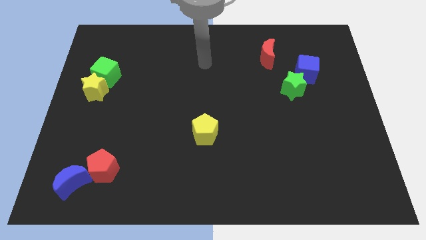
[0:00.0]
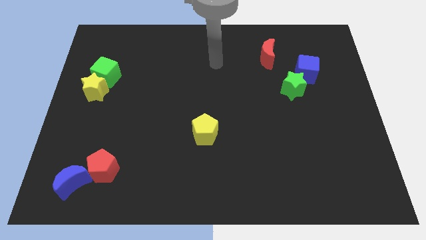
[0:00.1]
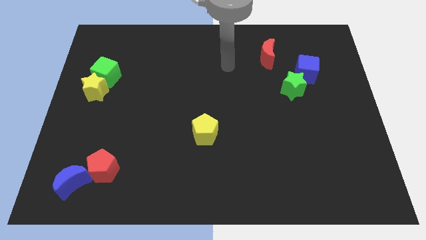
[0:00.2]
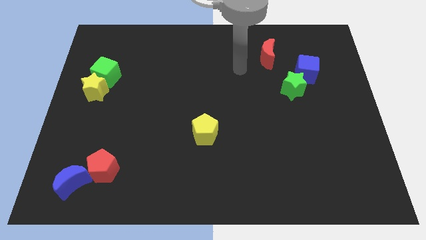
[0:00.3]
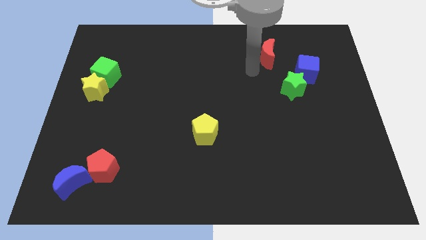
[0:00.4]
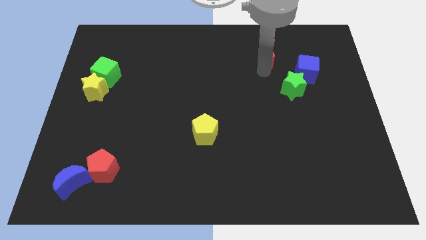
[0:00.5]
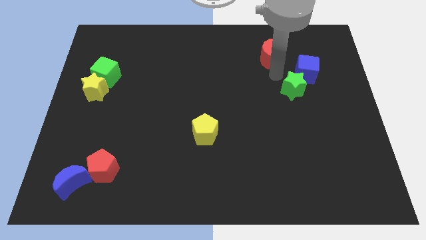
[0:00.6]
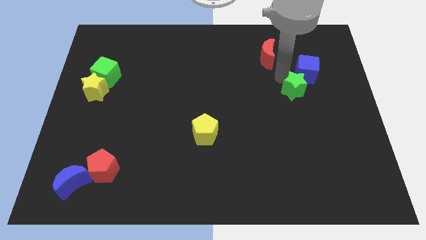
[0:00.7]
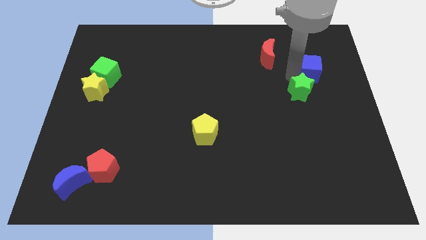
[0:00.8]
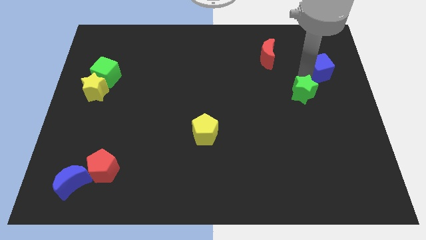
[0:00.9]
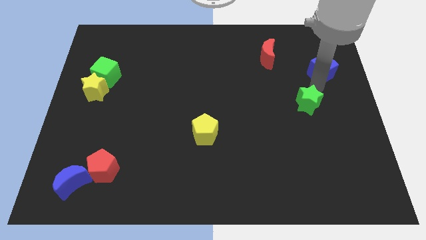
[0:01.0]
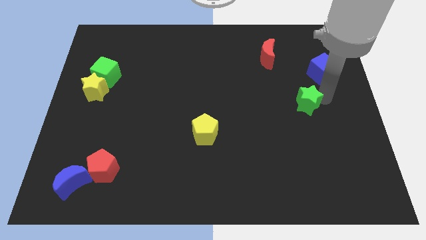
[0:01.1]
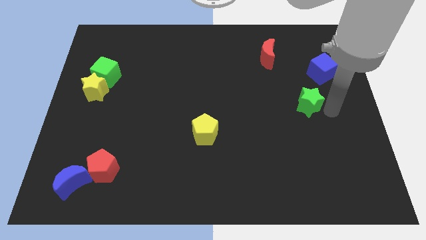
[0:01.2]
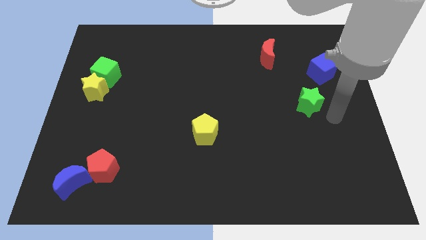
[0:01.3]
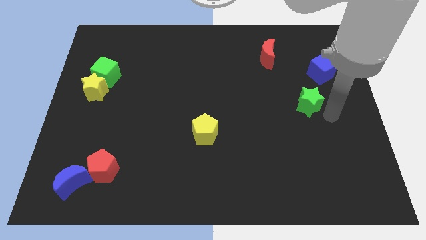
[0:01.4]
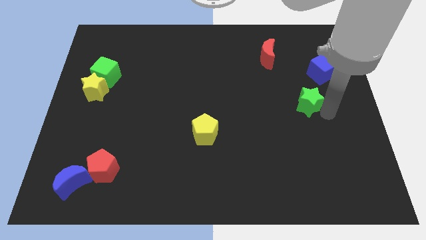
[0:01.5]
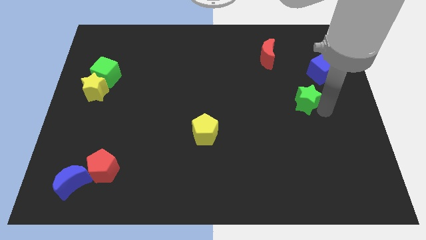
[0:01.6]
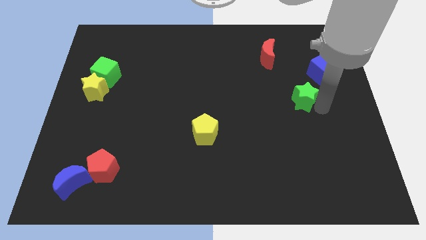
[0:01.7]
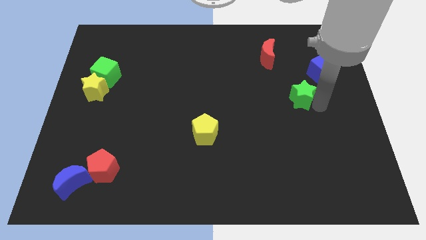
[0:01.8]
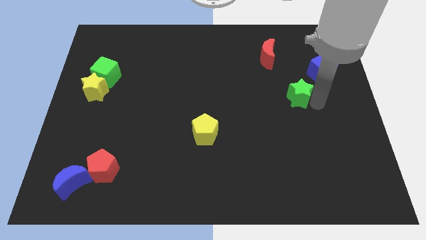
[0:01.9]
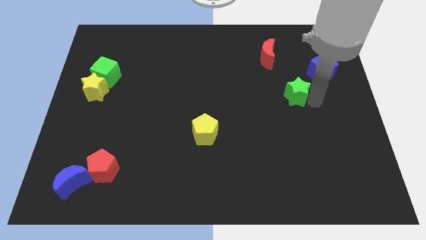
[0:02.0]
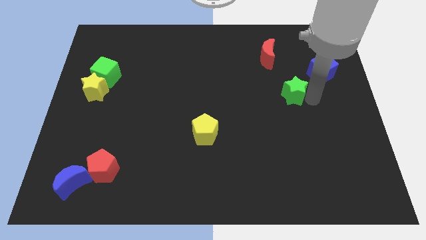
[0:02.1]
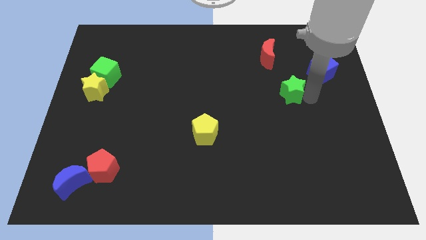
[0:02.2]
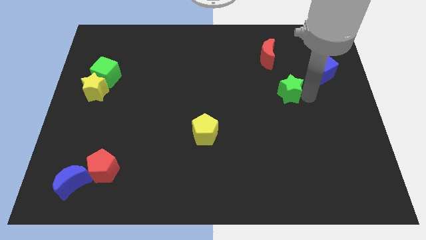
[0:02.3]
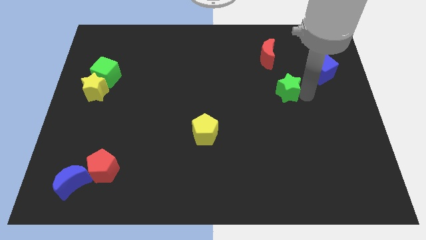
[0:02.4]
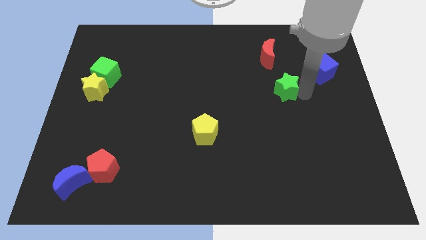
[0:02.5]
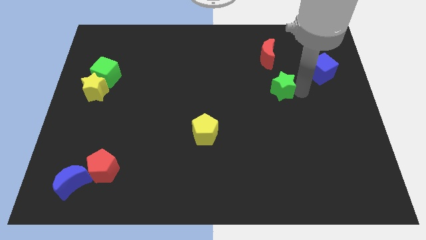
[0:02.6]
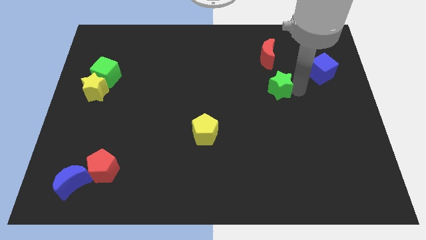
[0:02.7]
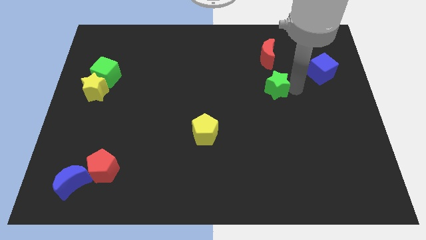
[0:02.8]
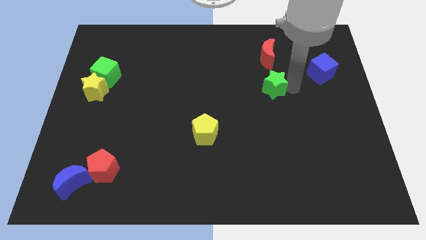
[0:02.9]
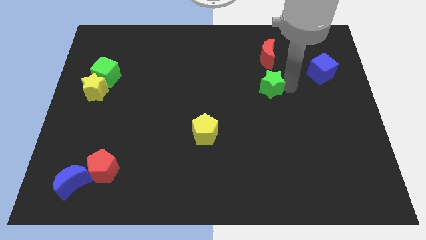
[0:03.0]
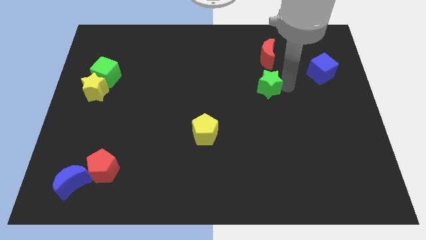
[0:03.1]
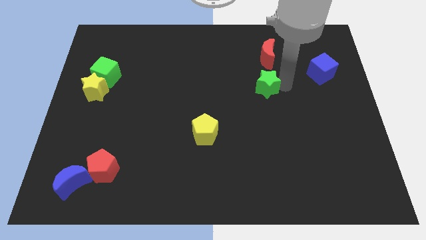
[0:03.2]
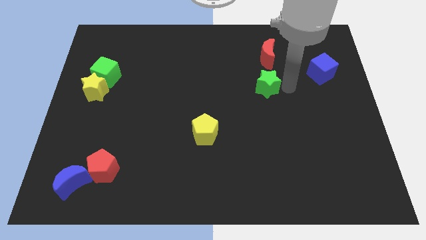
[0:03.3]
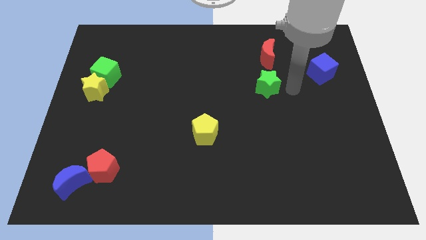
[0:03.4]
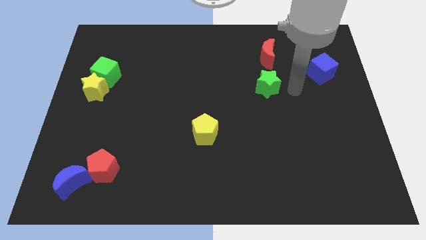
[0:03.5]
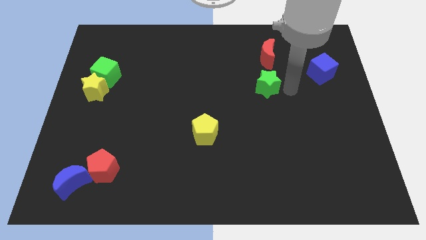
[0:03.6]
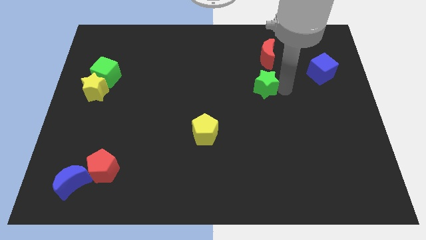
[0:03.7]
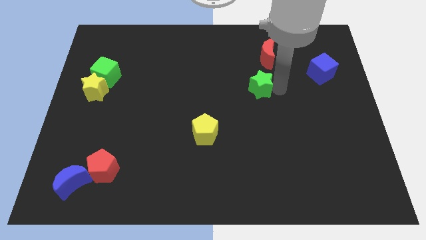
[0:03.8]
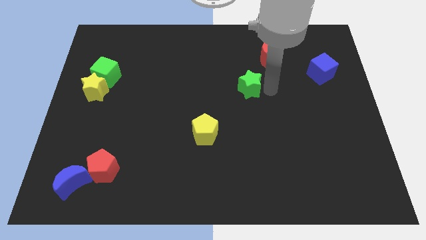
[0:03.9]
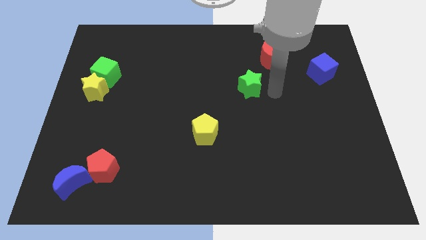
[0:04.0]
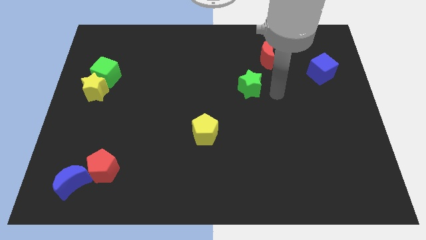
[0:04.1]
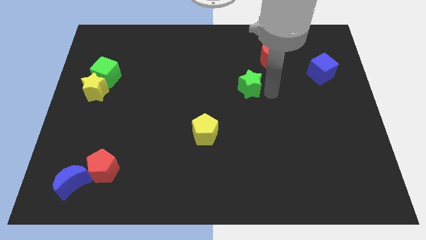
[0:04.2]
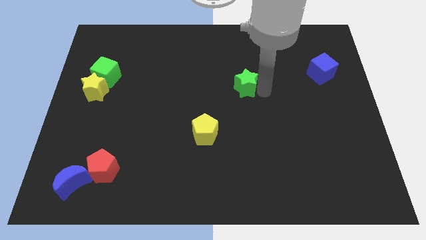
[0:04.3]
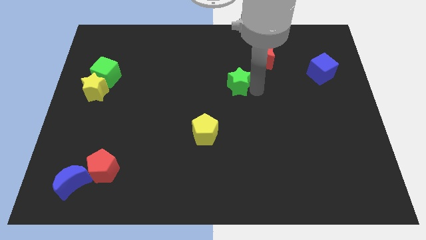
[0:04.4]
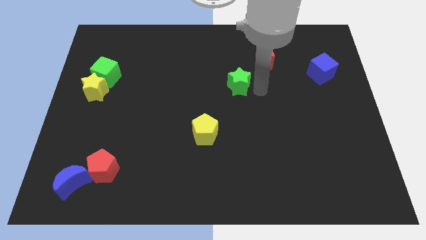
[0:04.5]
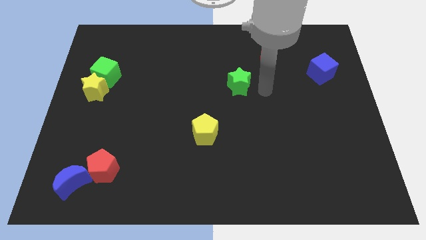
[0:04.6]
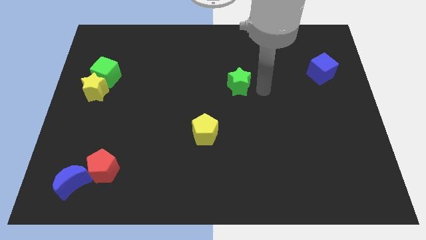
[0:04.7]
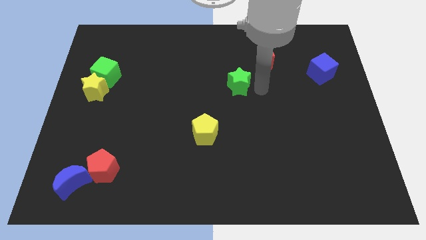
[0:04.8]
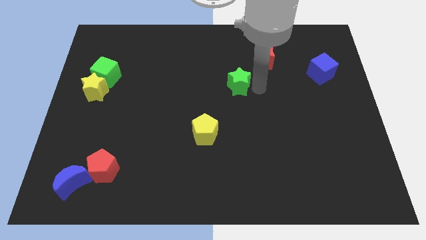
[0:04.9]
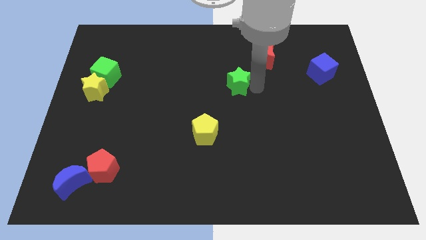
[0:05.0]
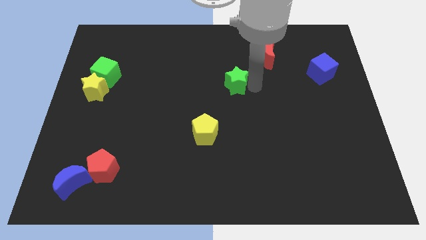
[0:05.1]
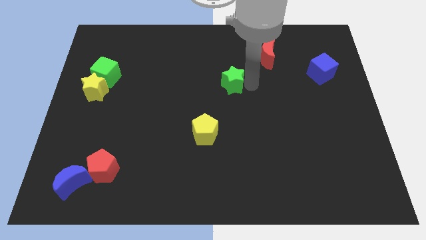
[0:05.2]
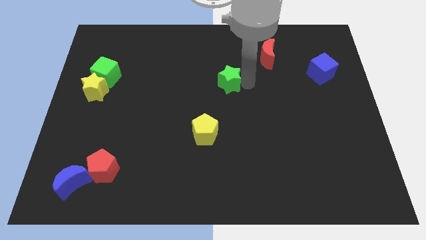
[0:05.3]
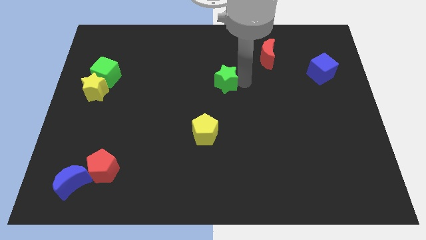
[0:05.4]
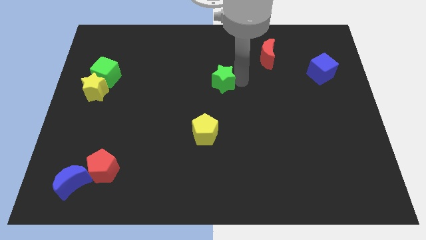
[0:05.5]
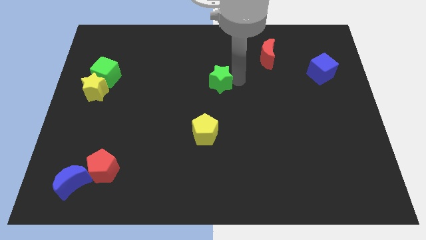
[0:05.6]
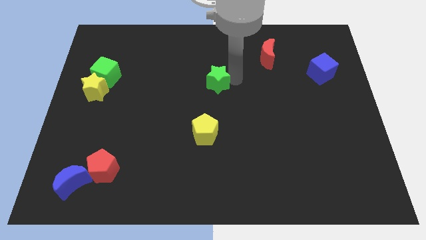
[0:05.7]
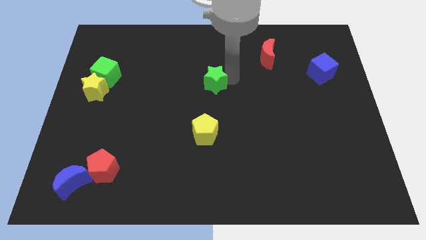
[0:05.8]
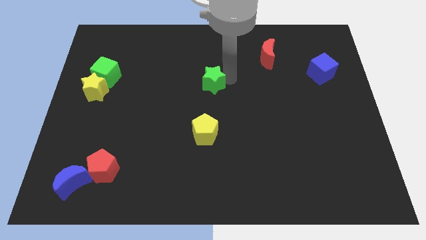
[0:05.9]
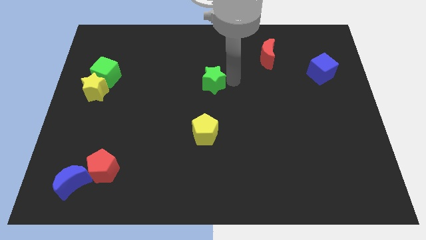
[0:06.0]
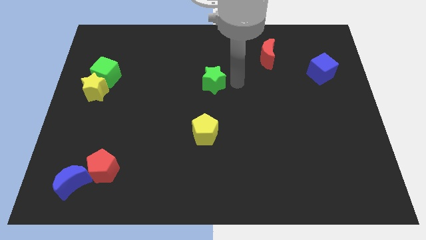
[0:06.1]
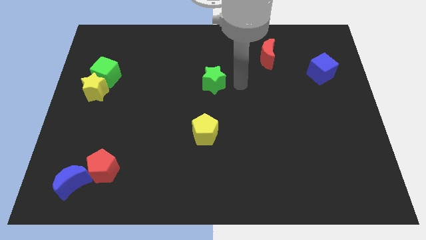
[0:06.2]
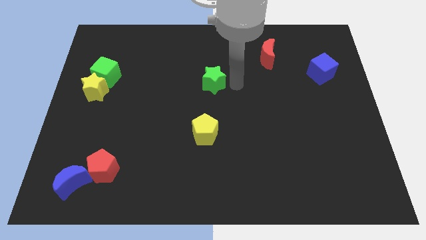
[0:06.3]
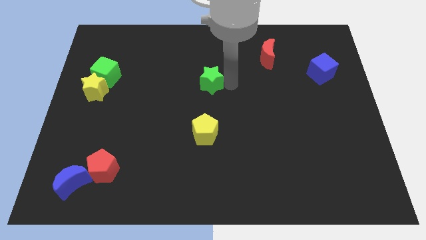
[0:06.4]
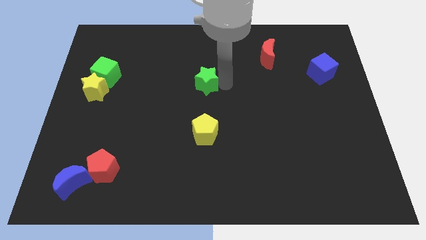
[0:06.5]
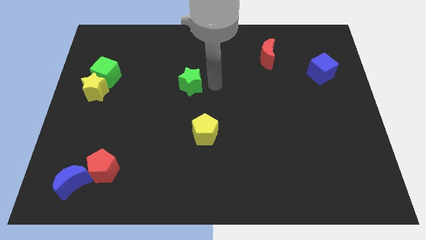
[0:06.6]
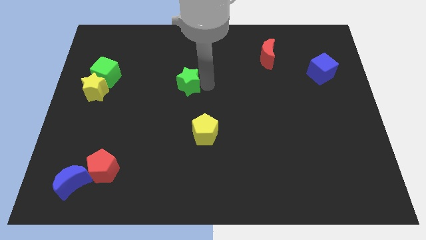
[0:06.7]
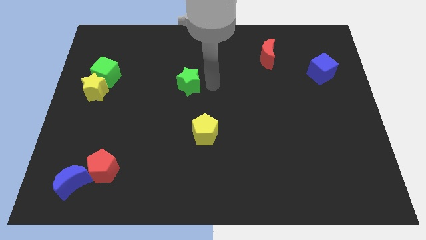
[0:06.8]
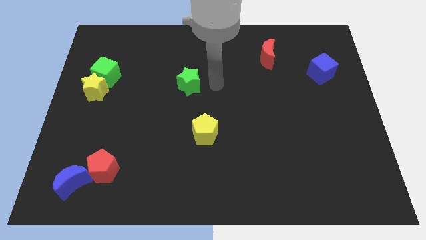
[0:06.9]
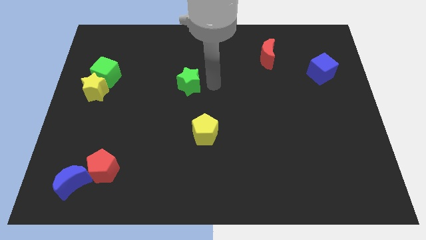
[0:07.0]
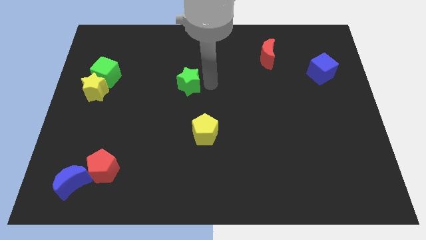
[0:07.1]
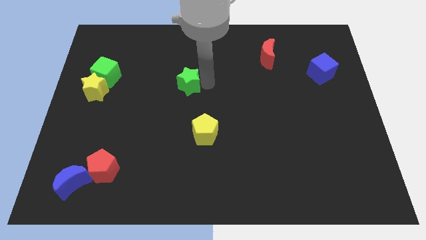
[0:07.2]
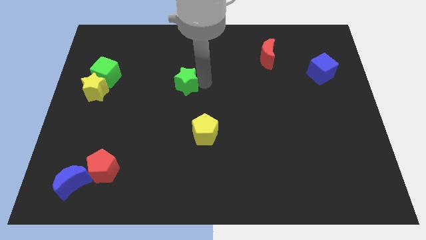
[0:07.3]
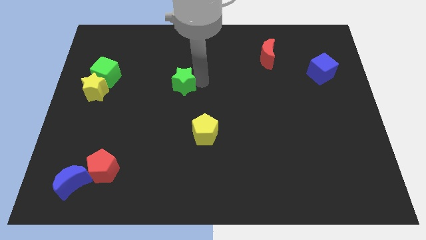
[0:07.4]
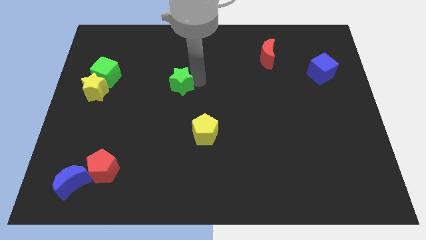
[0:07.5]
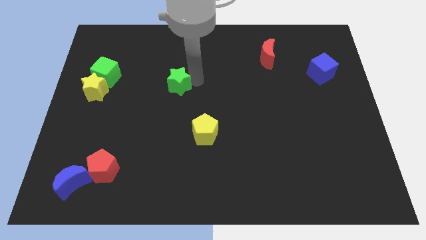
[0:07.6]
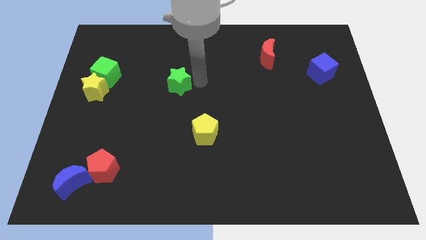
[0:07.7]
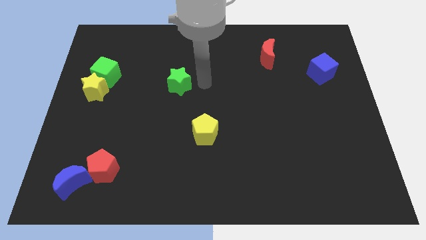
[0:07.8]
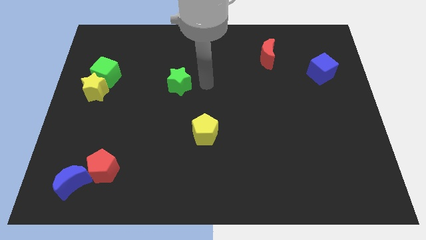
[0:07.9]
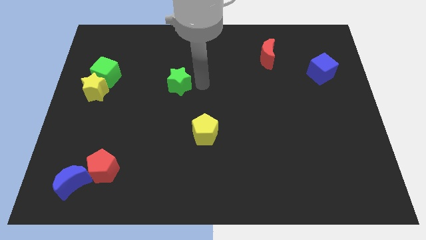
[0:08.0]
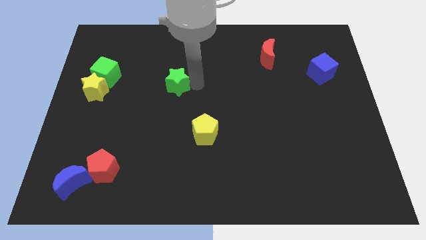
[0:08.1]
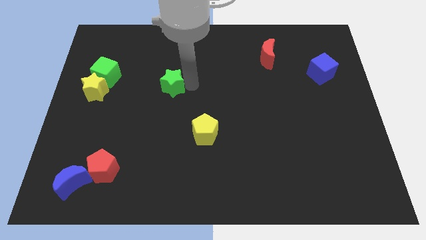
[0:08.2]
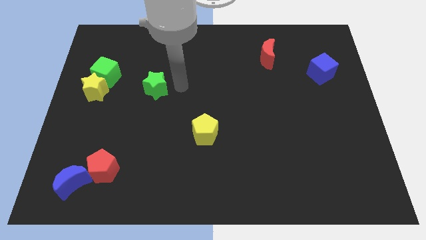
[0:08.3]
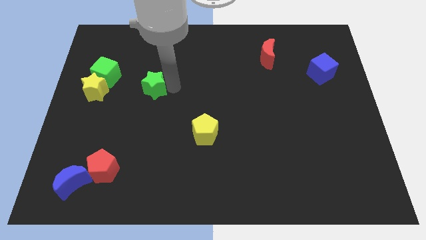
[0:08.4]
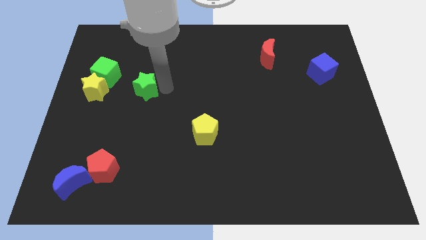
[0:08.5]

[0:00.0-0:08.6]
move the green star to the bottom right of the green cube
